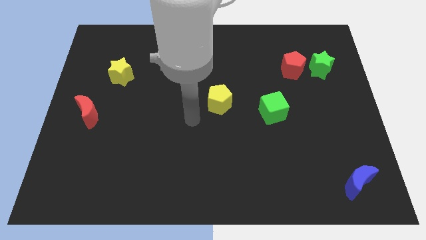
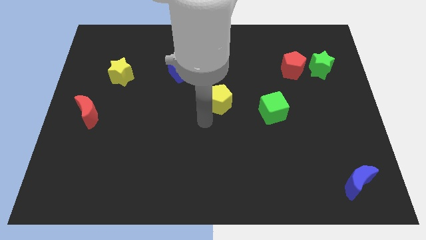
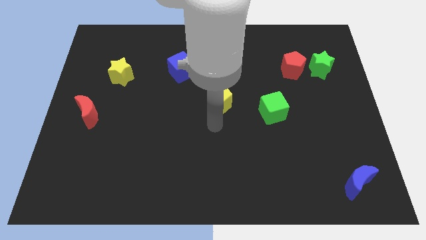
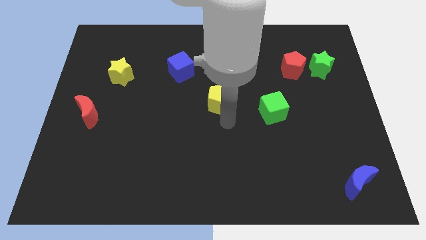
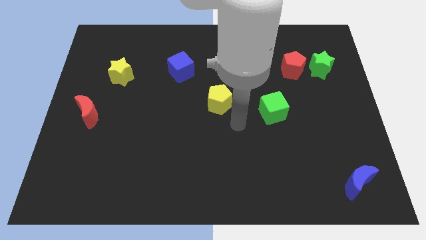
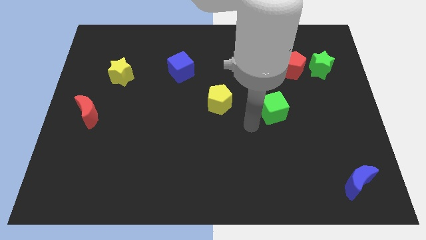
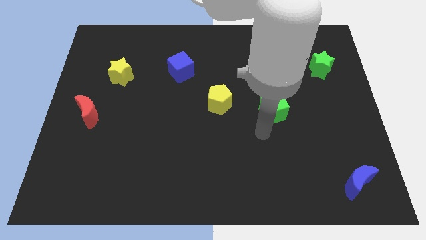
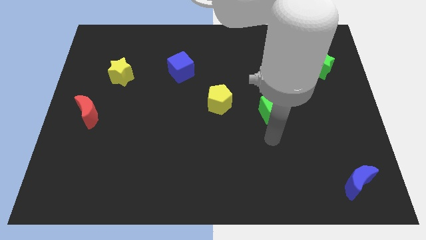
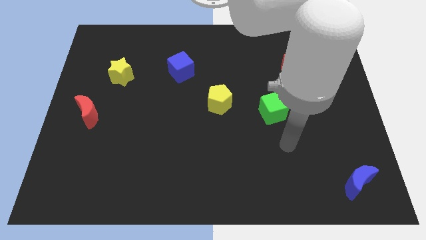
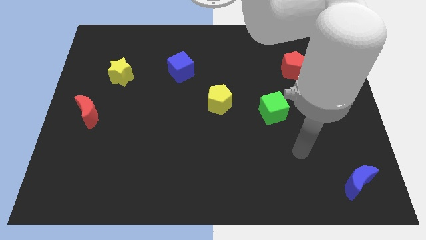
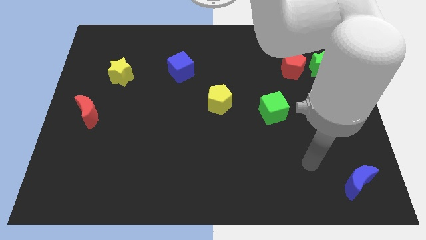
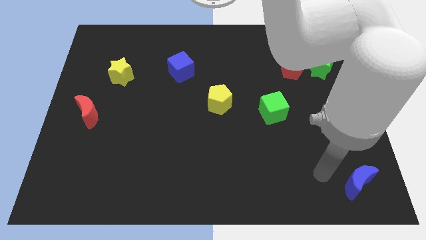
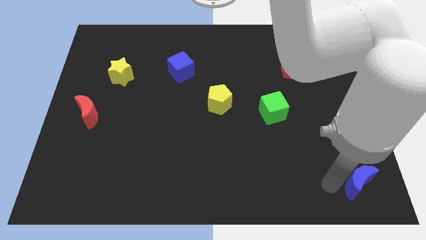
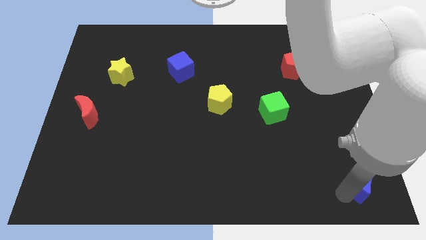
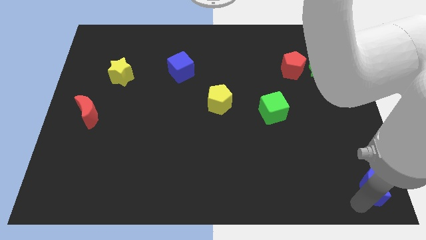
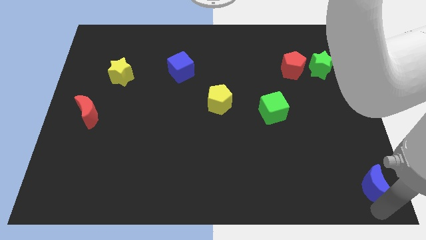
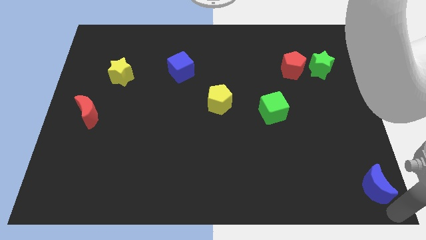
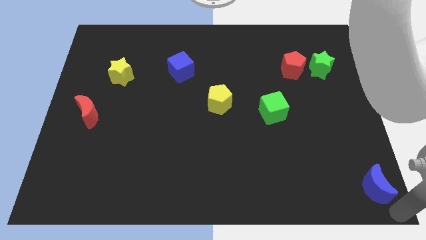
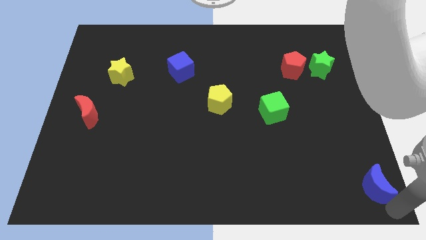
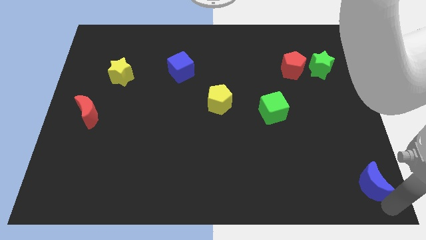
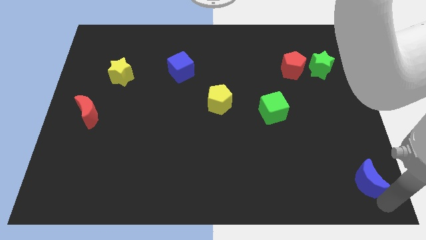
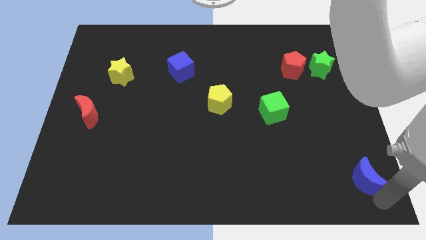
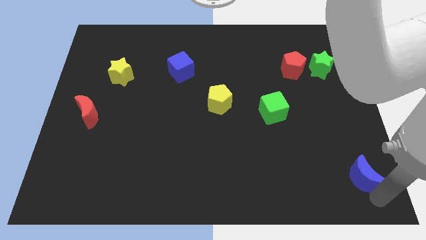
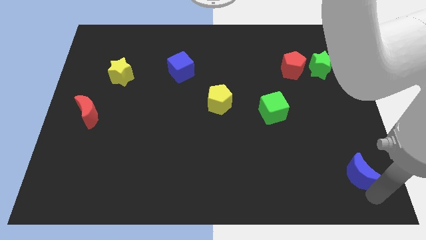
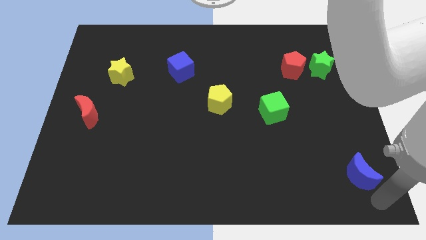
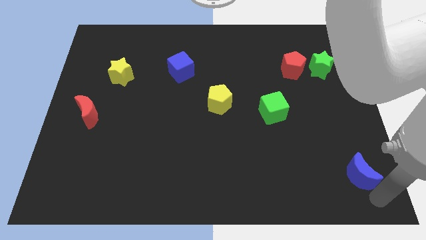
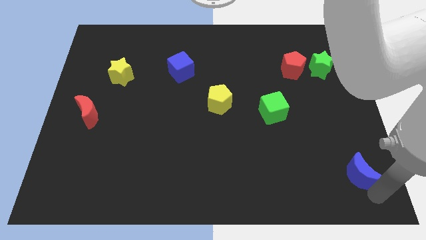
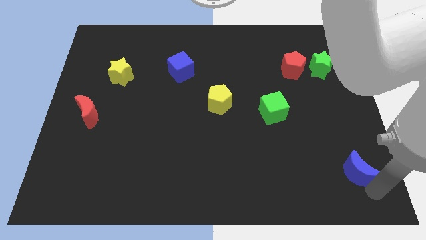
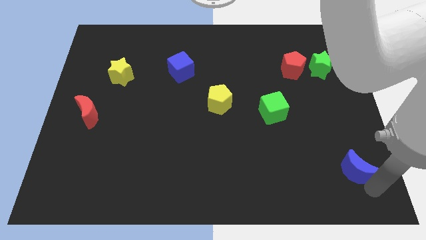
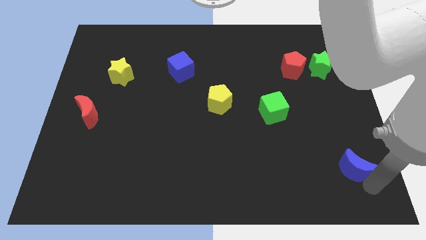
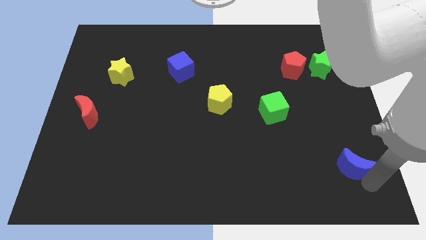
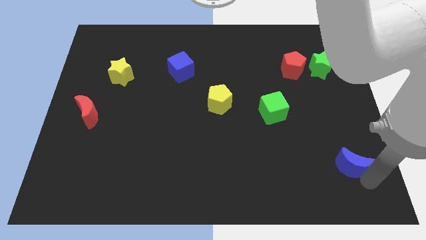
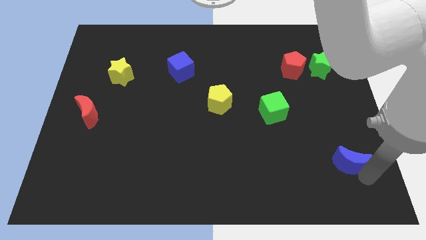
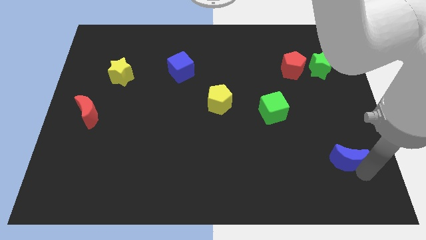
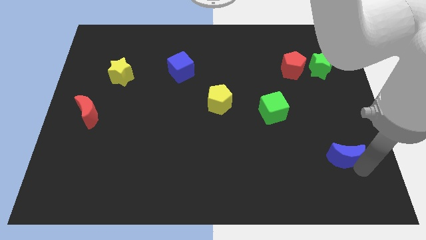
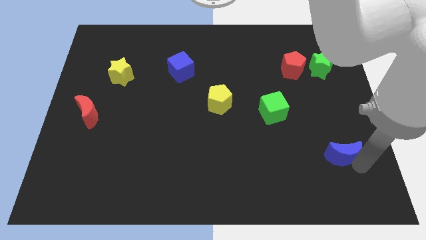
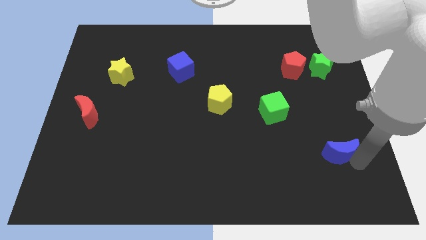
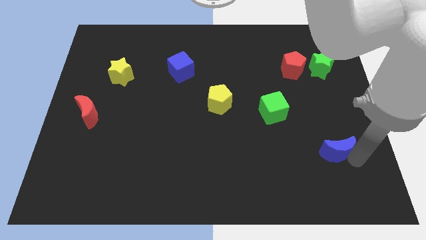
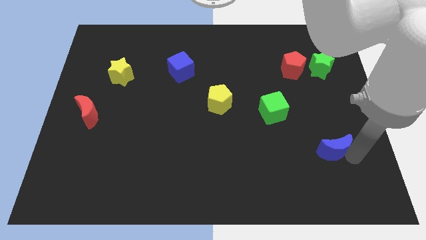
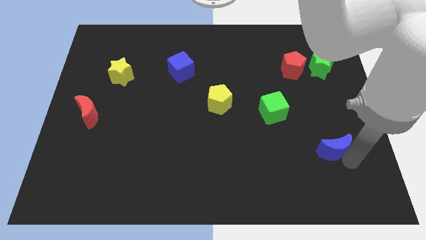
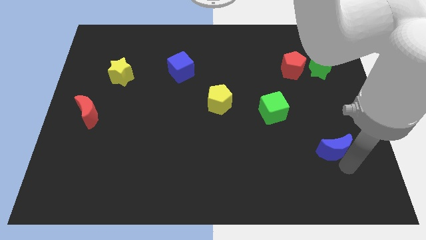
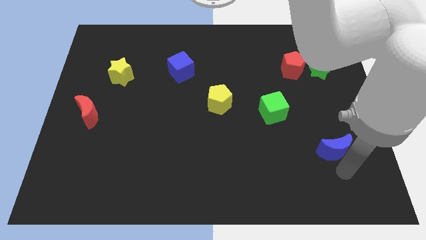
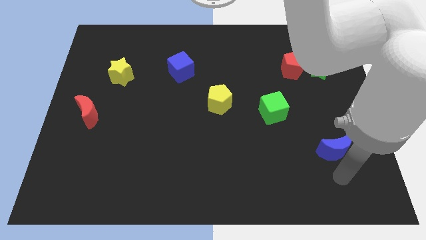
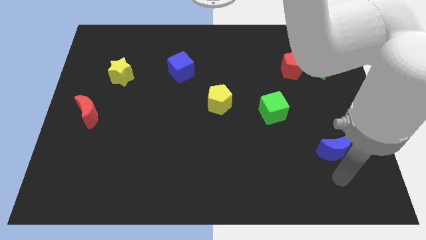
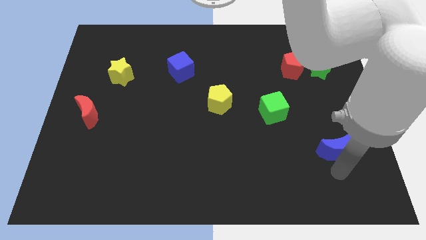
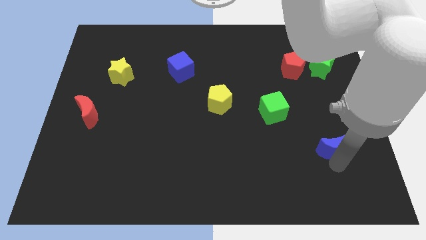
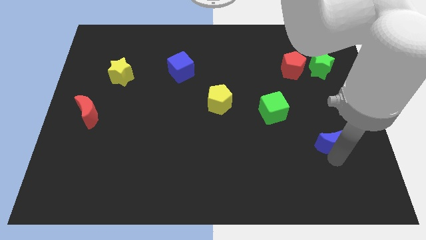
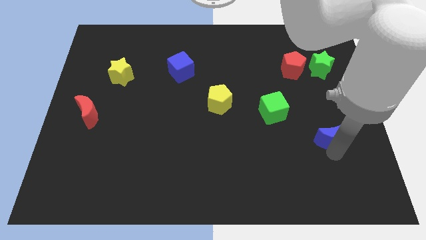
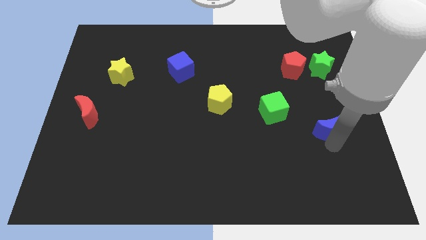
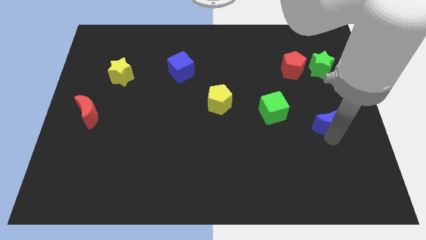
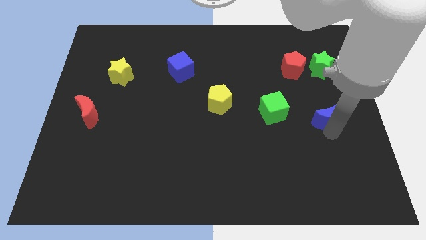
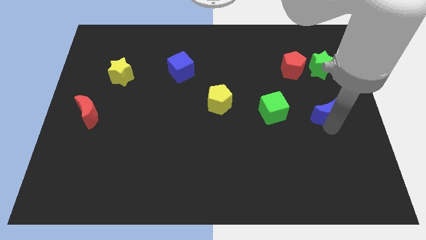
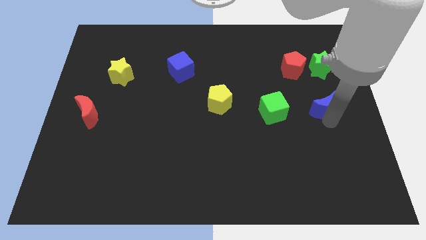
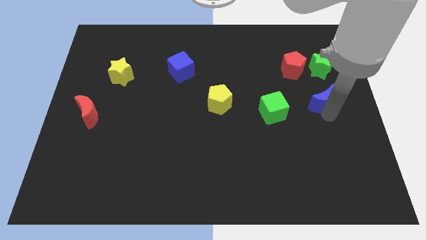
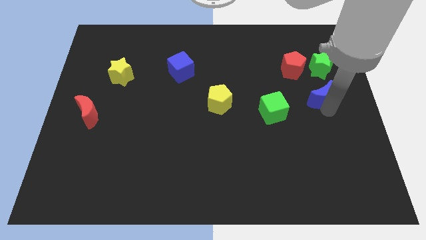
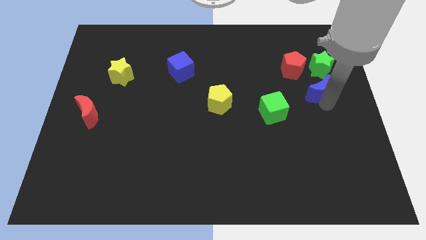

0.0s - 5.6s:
put the blue moon diagonally down and to the left of the green star

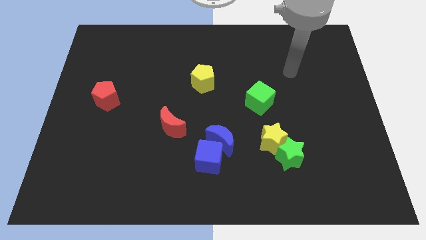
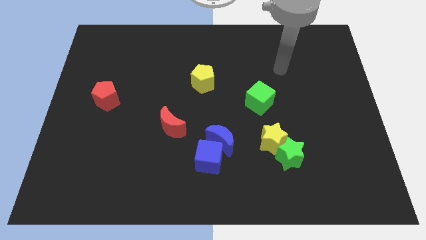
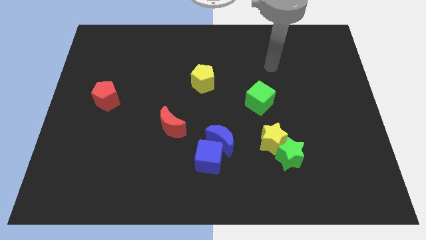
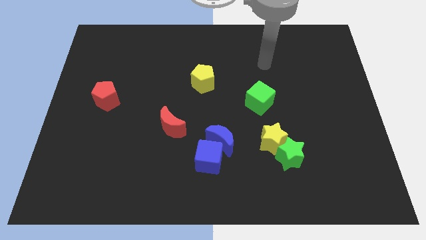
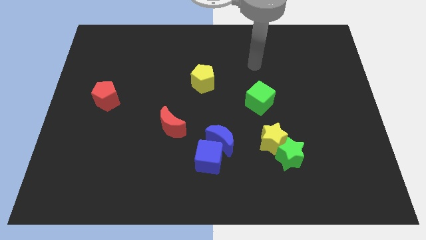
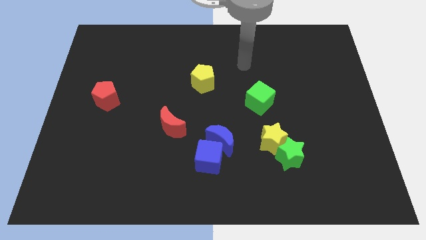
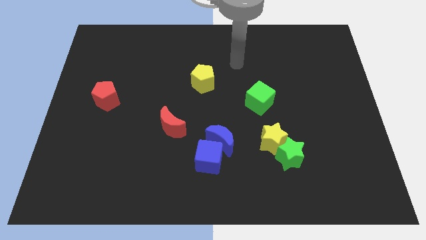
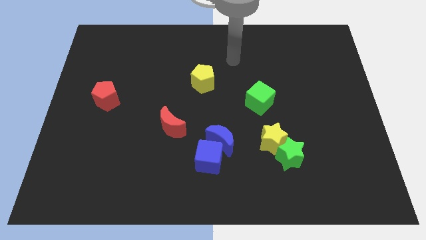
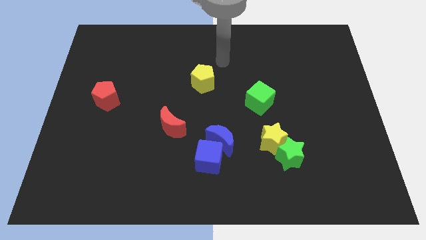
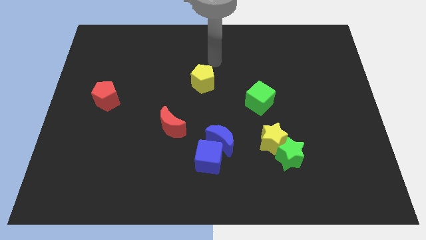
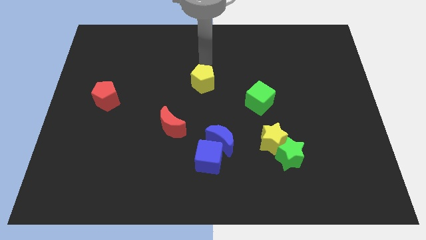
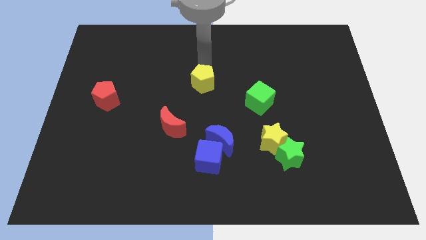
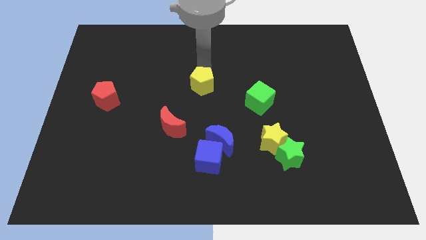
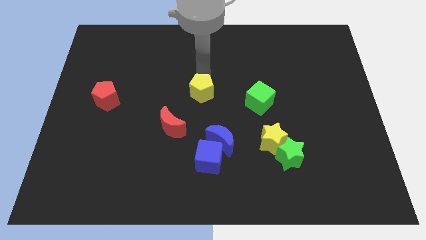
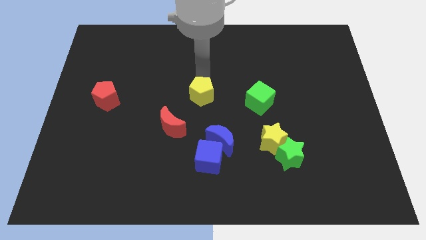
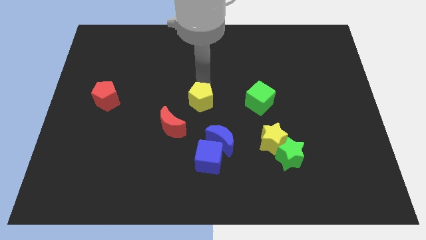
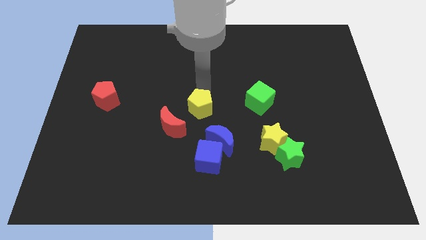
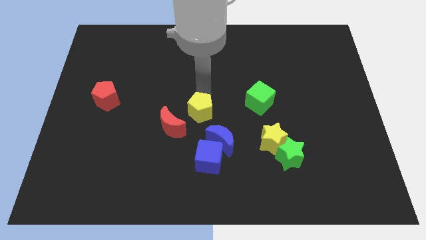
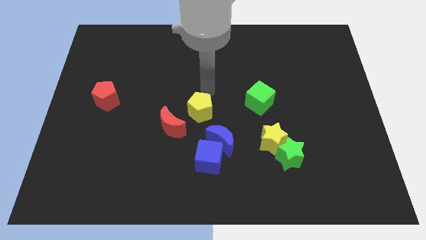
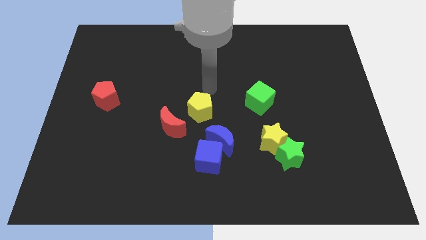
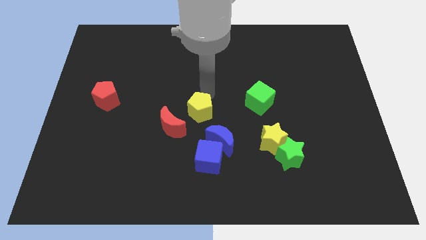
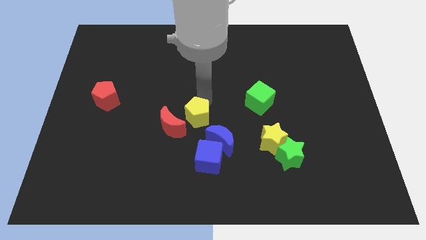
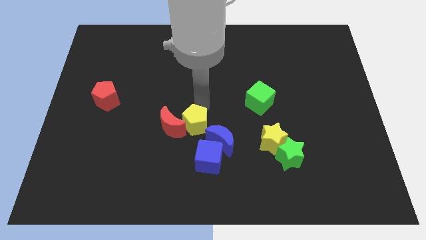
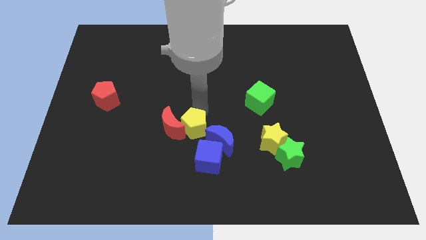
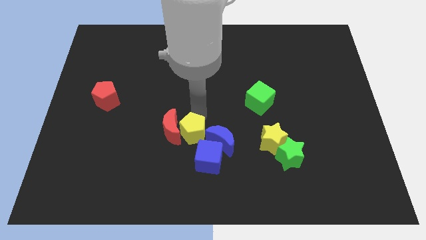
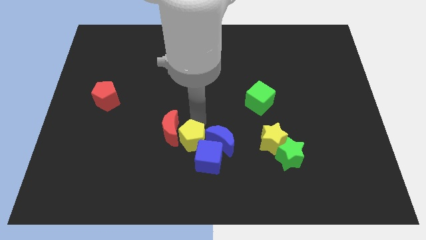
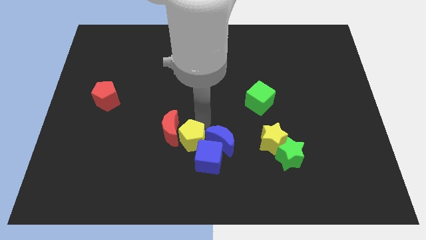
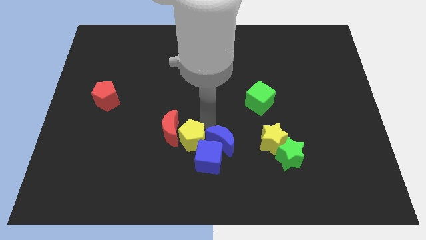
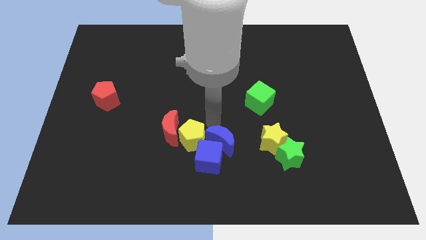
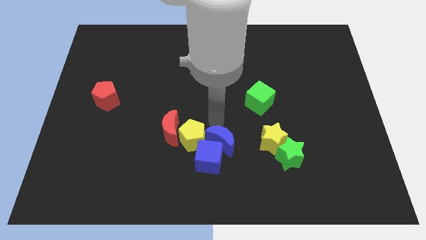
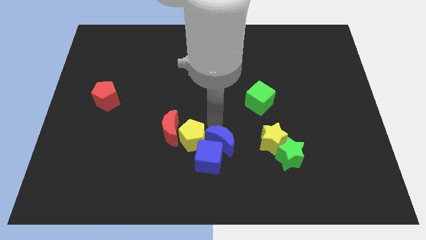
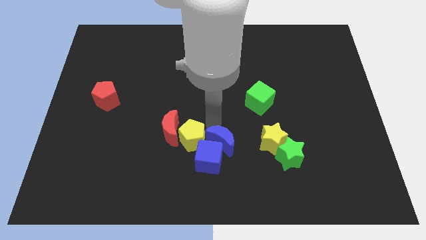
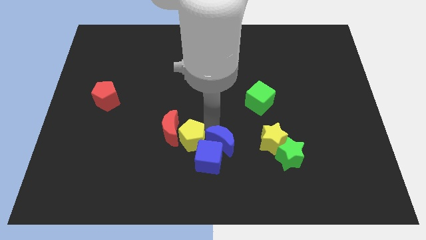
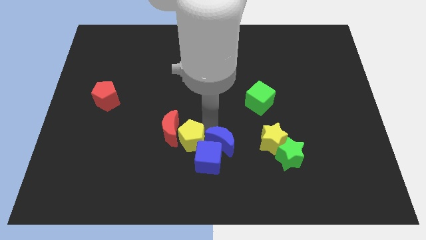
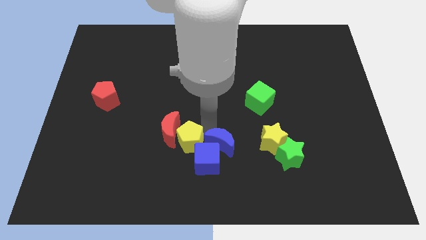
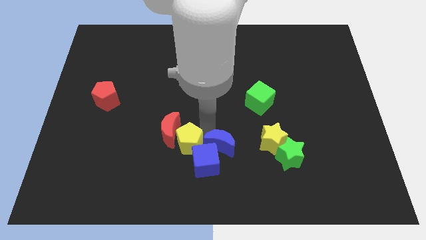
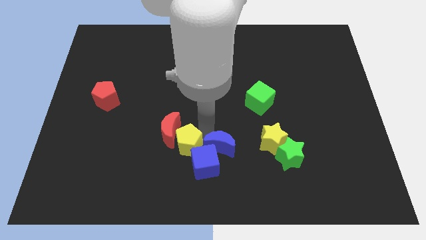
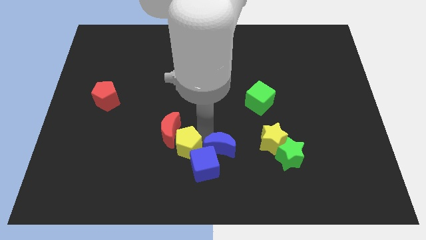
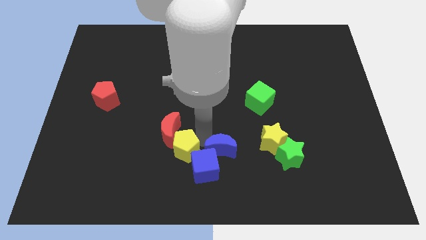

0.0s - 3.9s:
move the yellow pentagon just left of the blue cube
